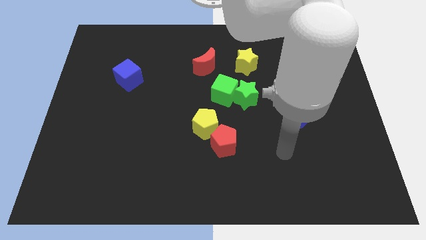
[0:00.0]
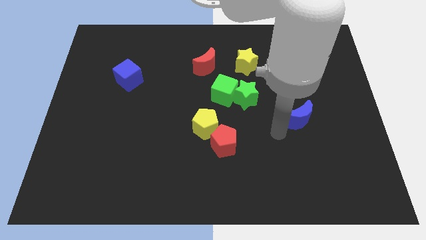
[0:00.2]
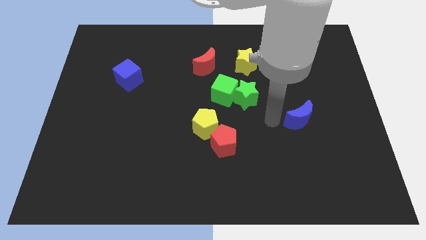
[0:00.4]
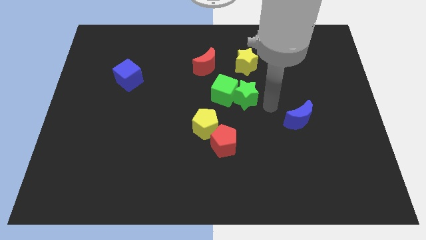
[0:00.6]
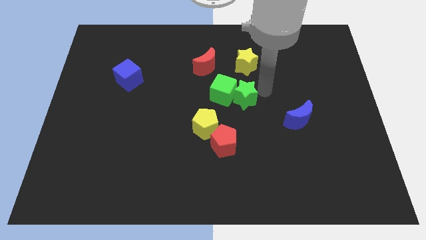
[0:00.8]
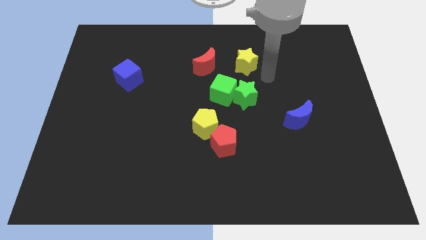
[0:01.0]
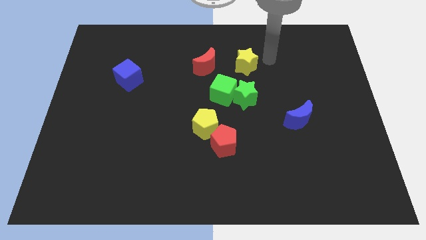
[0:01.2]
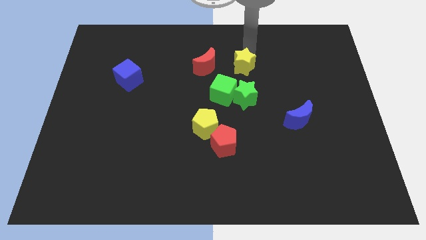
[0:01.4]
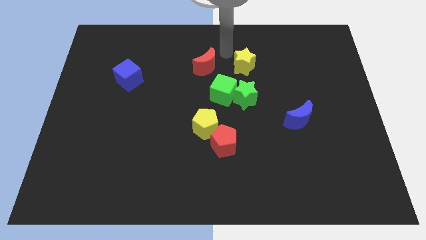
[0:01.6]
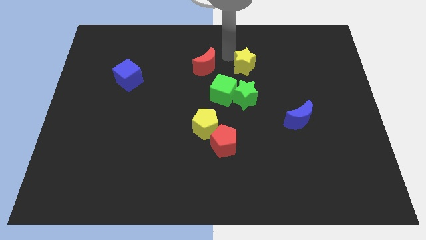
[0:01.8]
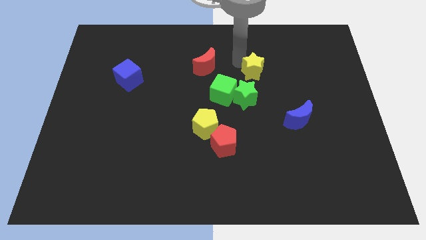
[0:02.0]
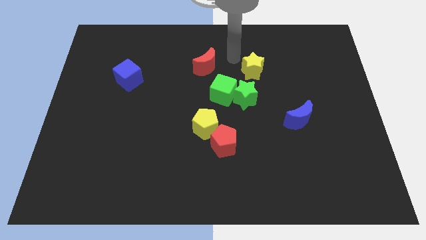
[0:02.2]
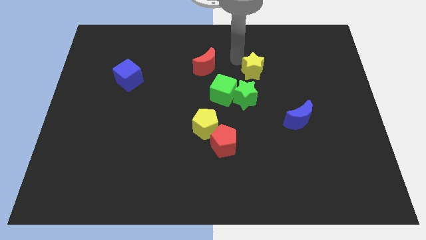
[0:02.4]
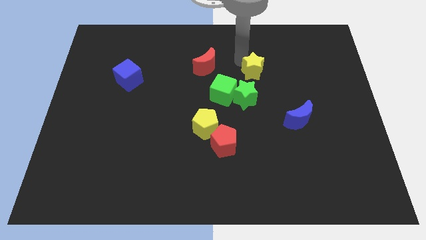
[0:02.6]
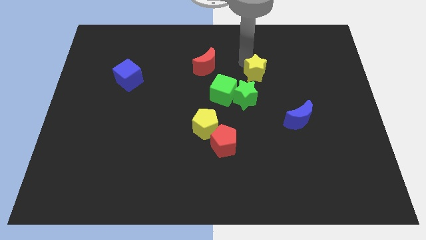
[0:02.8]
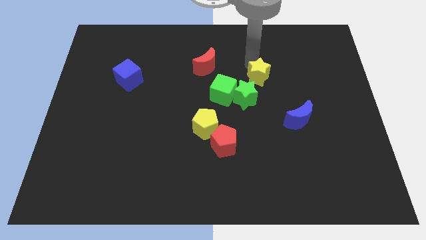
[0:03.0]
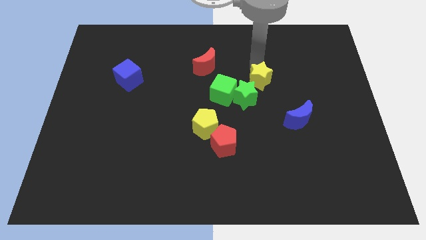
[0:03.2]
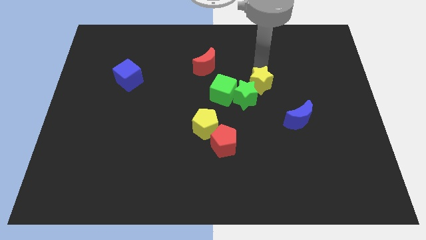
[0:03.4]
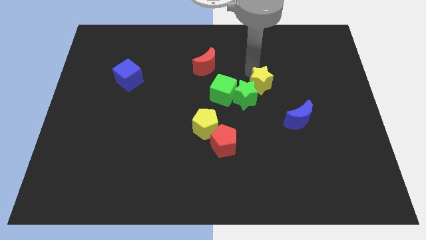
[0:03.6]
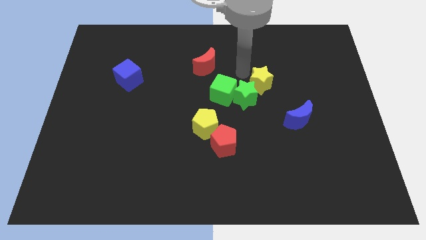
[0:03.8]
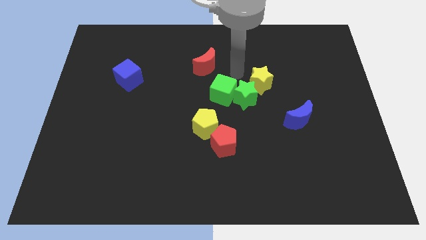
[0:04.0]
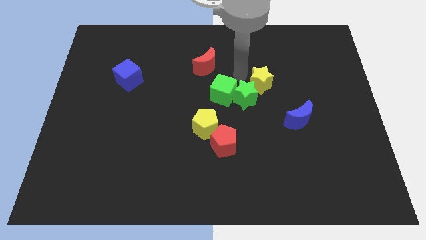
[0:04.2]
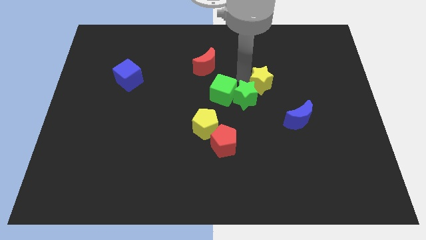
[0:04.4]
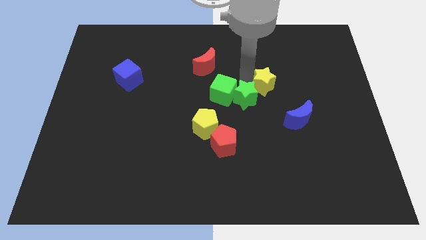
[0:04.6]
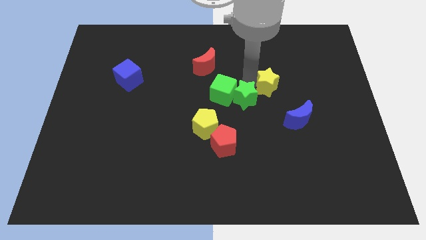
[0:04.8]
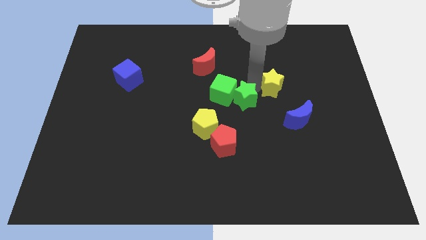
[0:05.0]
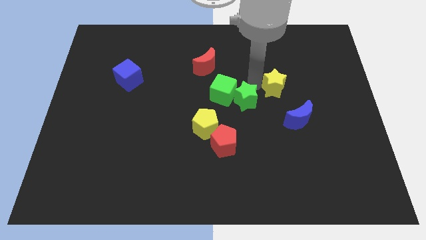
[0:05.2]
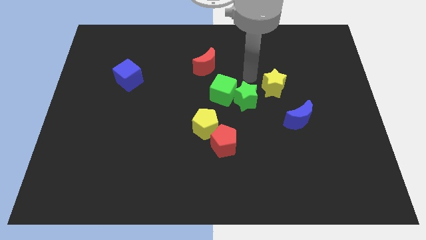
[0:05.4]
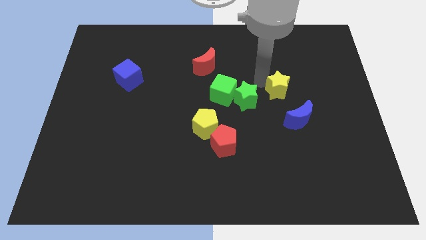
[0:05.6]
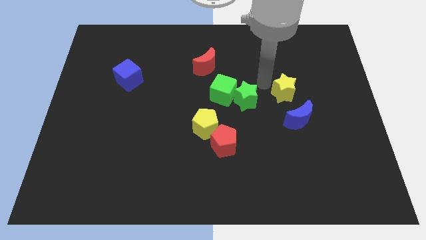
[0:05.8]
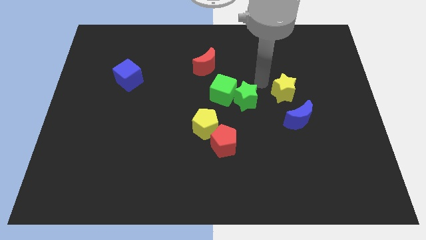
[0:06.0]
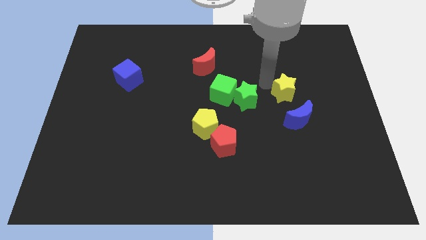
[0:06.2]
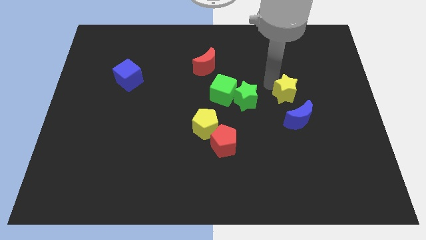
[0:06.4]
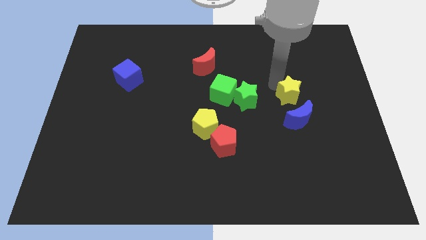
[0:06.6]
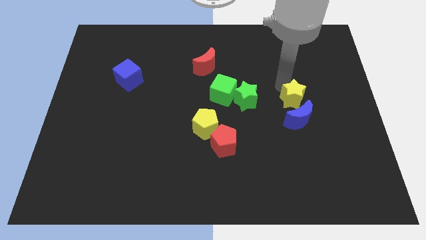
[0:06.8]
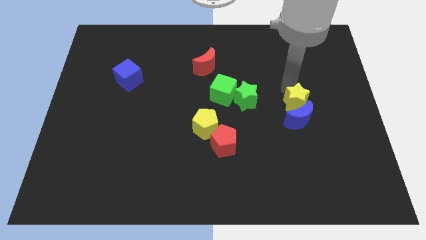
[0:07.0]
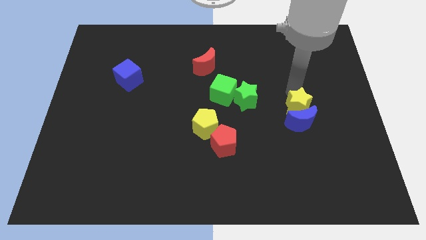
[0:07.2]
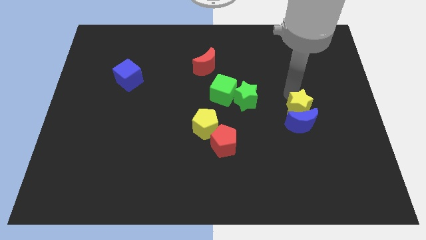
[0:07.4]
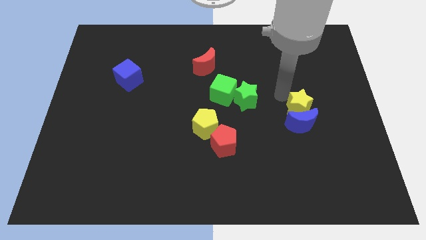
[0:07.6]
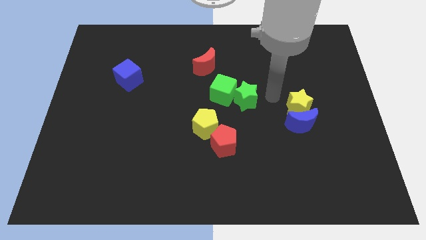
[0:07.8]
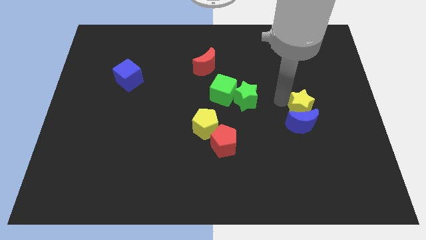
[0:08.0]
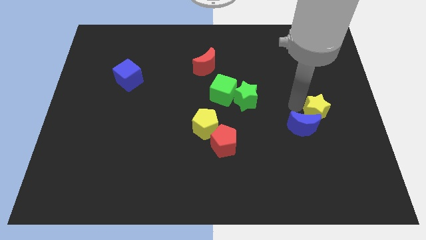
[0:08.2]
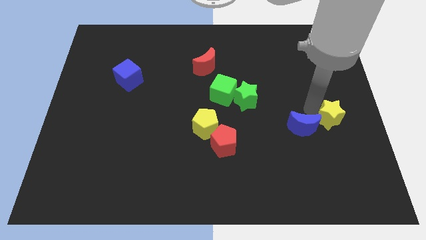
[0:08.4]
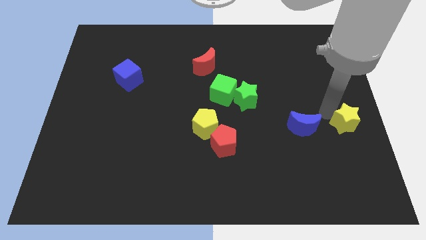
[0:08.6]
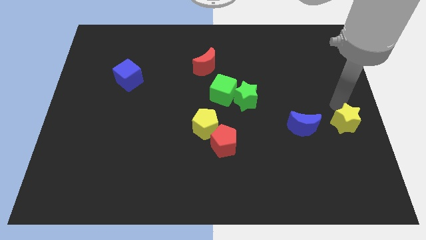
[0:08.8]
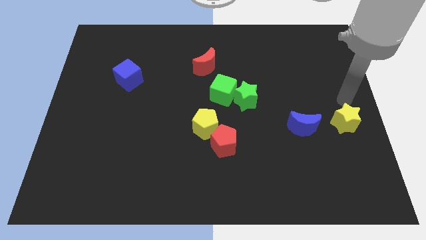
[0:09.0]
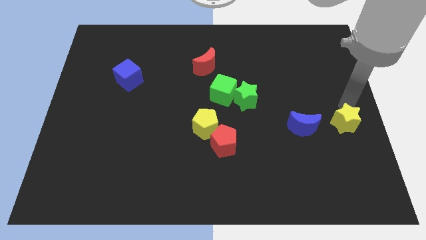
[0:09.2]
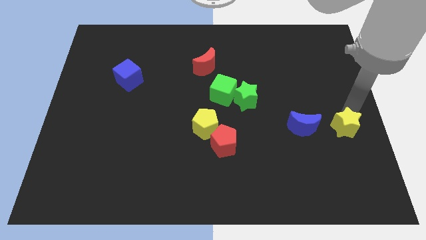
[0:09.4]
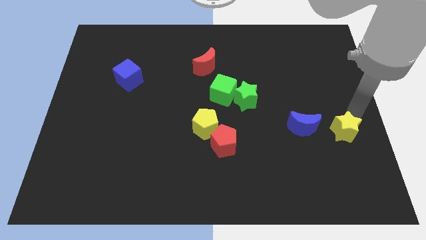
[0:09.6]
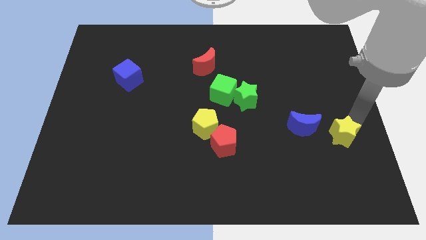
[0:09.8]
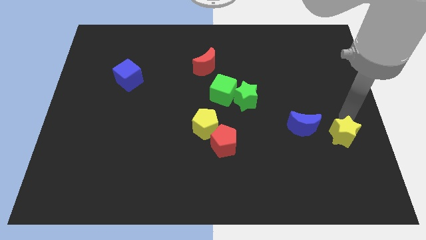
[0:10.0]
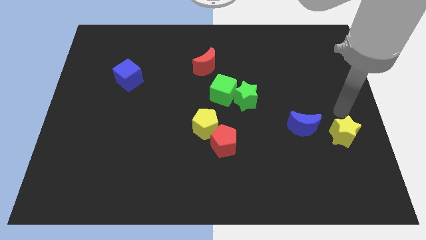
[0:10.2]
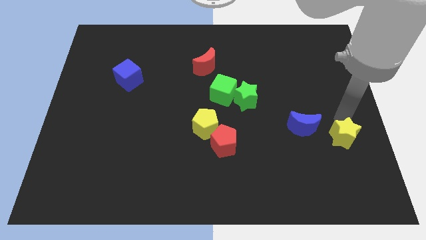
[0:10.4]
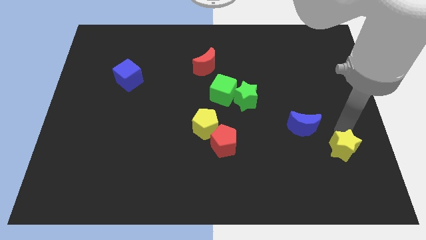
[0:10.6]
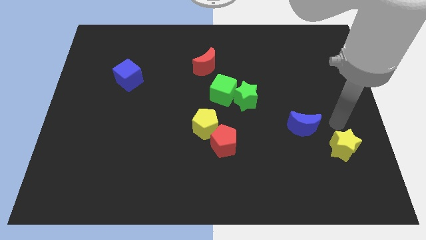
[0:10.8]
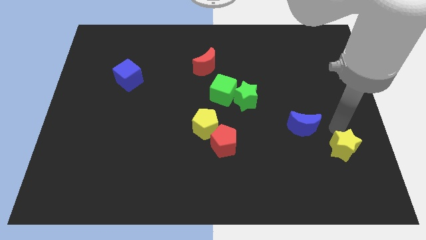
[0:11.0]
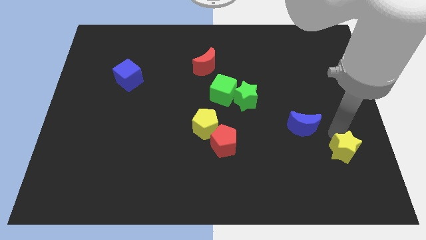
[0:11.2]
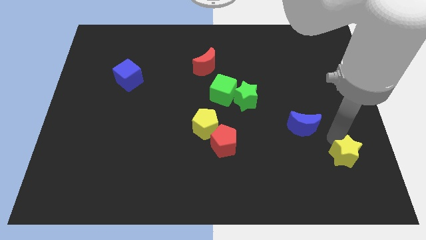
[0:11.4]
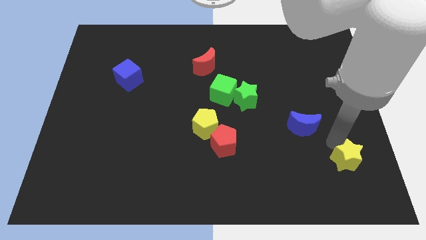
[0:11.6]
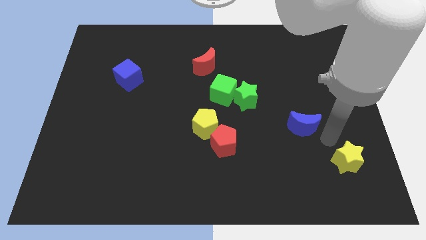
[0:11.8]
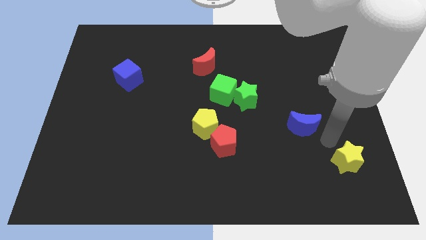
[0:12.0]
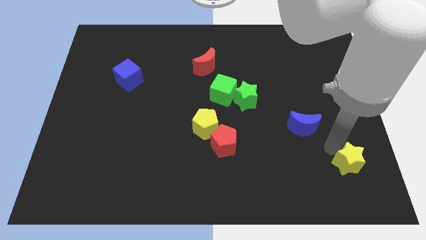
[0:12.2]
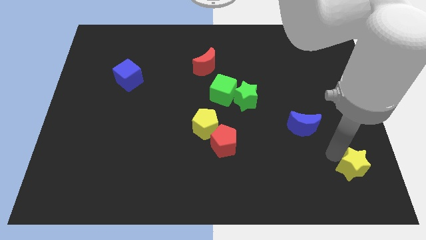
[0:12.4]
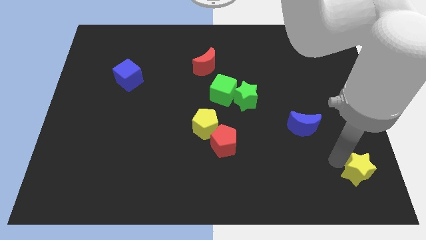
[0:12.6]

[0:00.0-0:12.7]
move the yellow star to the bottom right of the board
